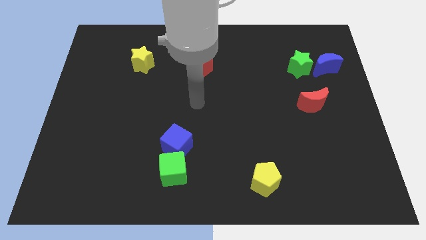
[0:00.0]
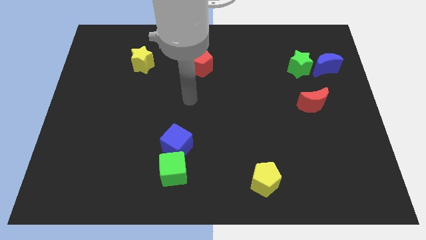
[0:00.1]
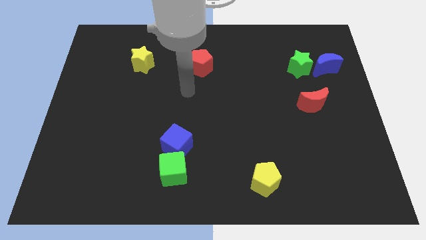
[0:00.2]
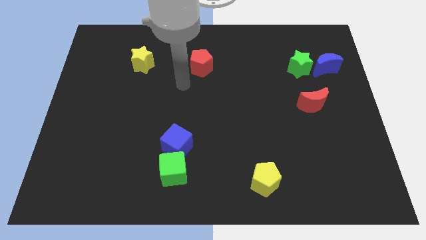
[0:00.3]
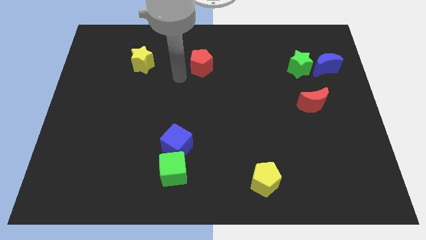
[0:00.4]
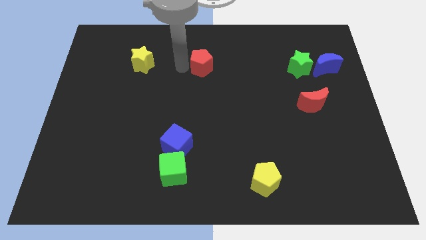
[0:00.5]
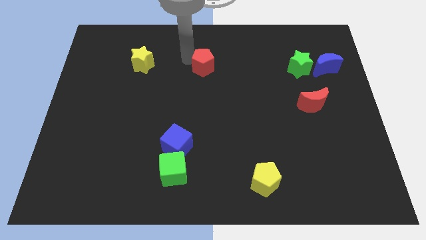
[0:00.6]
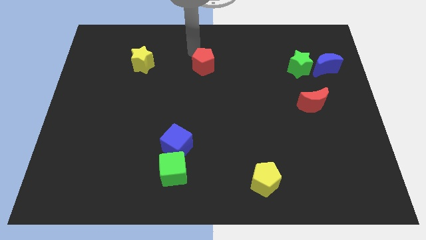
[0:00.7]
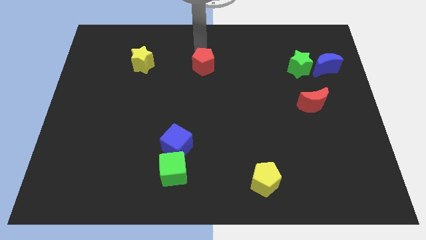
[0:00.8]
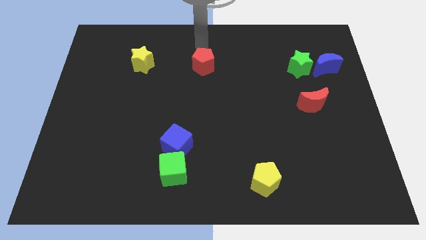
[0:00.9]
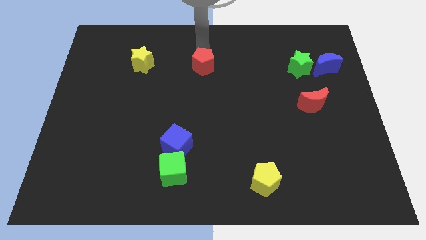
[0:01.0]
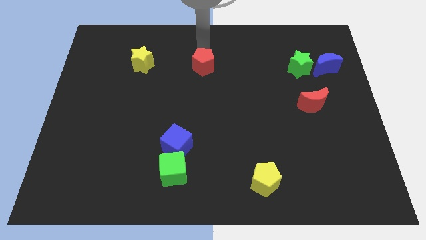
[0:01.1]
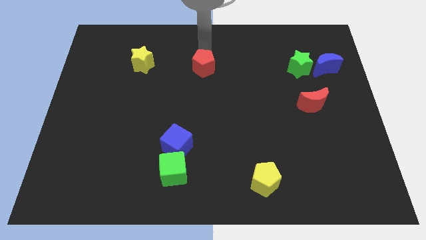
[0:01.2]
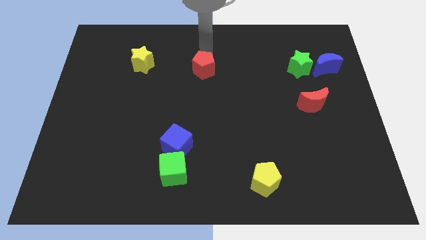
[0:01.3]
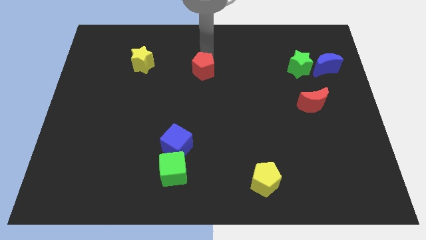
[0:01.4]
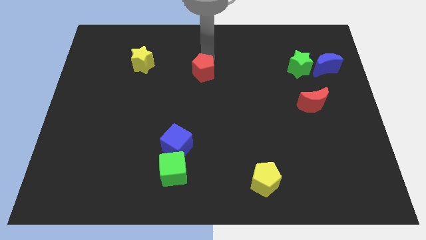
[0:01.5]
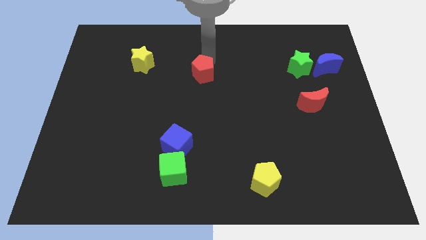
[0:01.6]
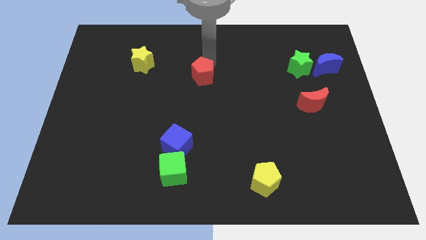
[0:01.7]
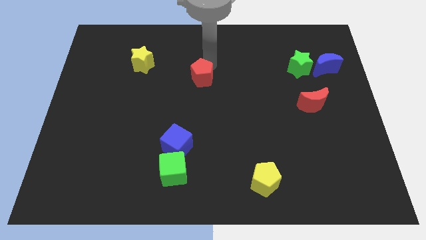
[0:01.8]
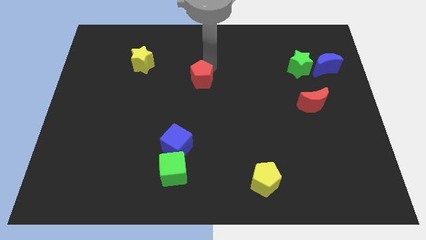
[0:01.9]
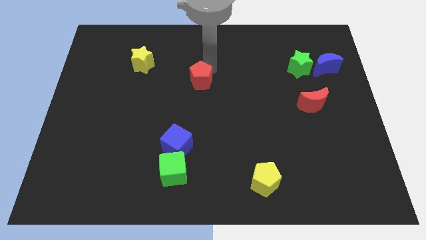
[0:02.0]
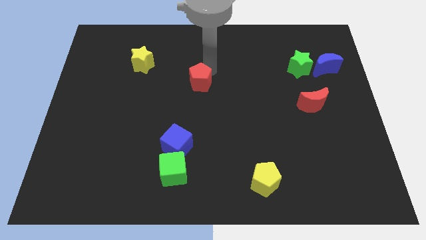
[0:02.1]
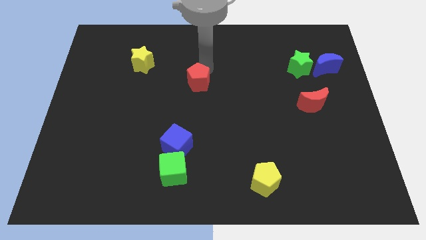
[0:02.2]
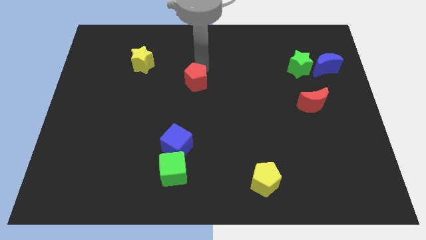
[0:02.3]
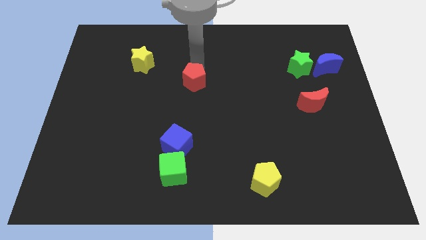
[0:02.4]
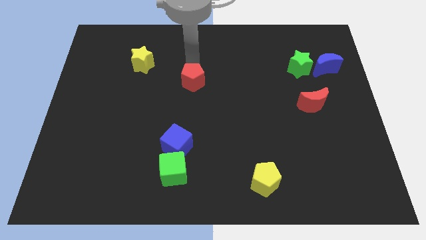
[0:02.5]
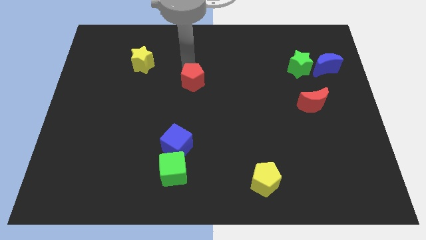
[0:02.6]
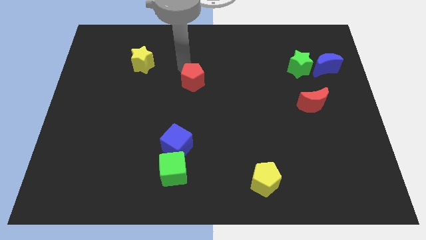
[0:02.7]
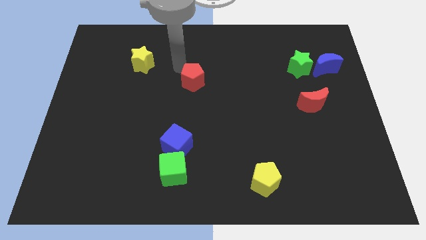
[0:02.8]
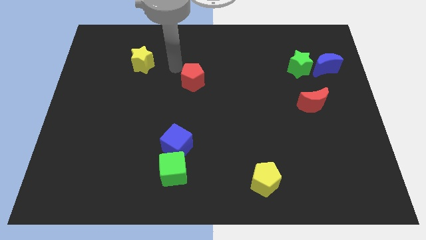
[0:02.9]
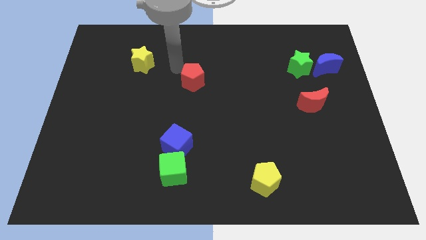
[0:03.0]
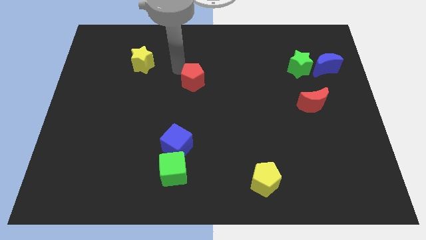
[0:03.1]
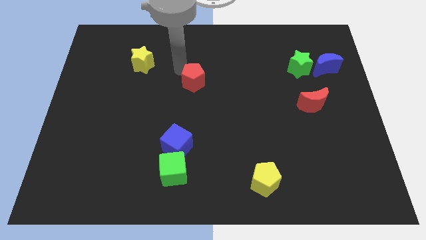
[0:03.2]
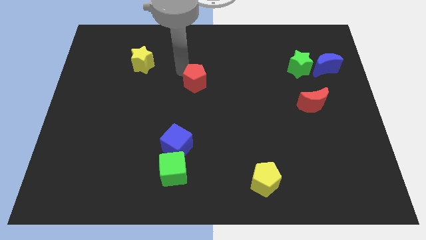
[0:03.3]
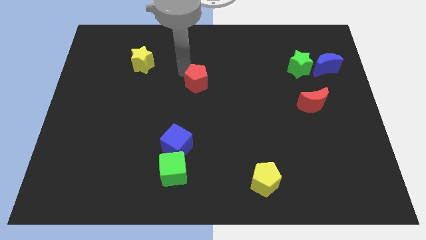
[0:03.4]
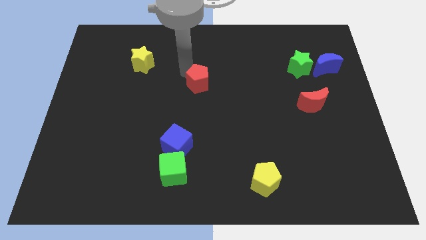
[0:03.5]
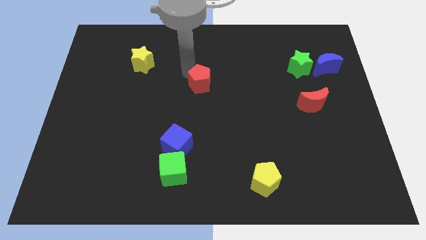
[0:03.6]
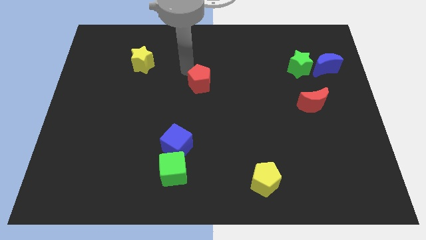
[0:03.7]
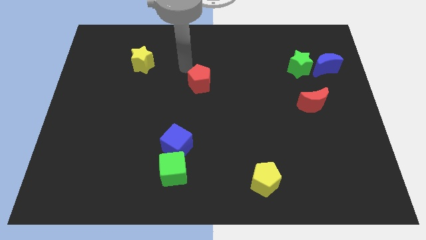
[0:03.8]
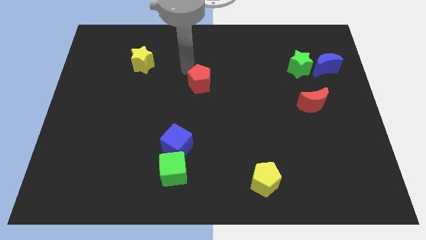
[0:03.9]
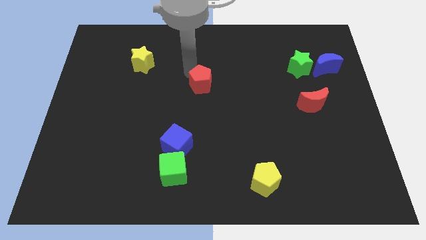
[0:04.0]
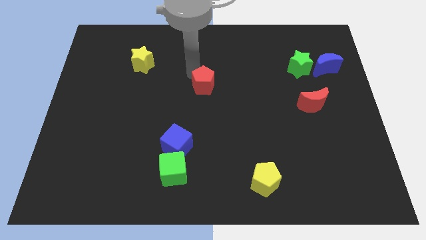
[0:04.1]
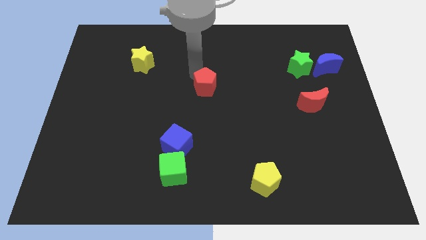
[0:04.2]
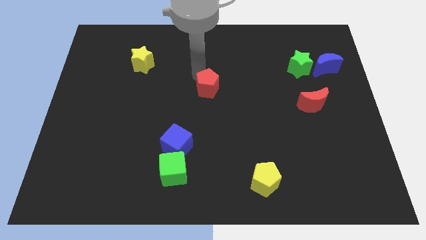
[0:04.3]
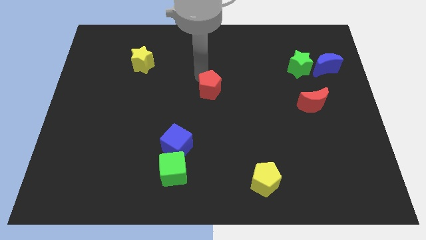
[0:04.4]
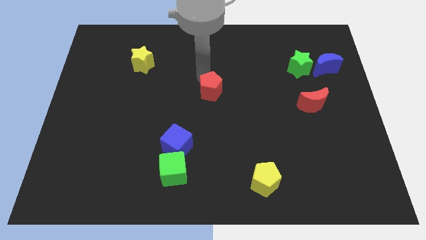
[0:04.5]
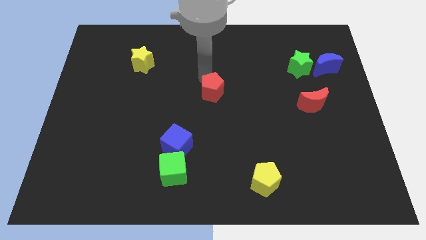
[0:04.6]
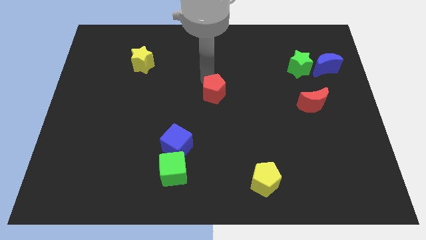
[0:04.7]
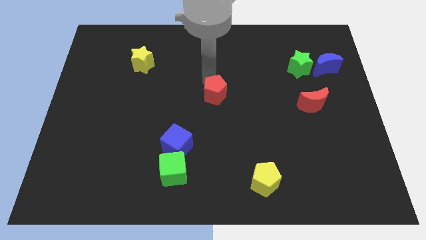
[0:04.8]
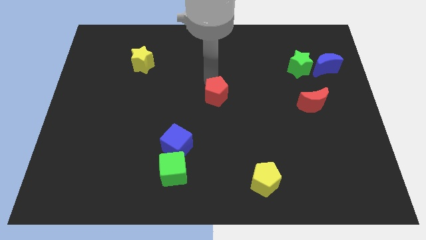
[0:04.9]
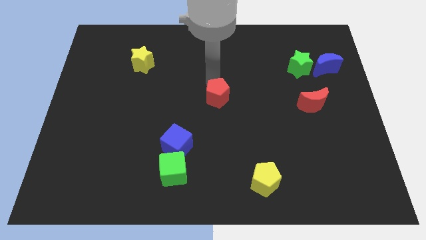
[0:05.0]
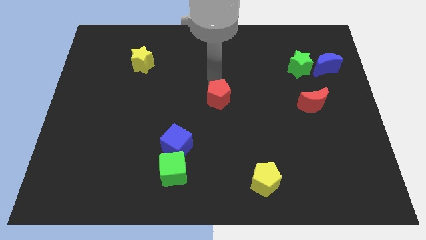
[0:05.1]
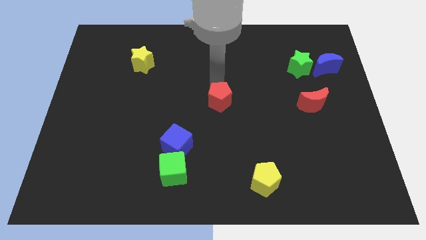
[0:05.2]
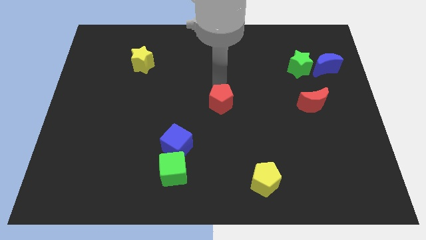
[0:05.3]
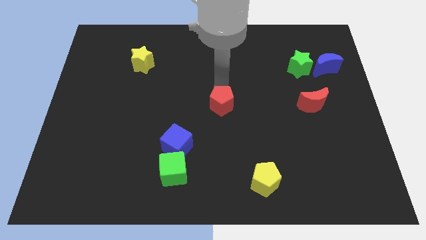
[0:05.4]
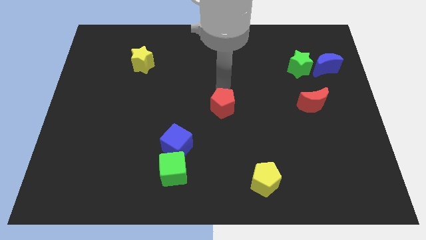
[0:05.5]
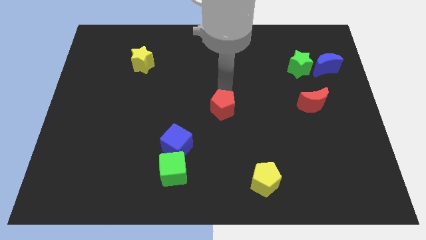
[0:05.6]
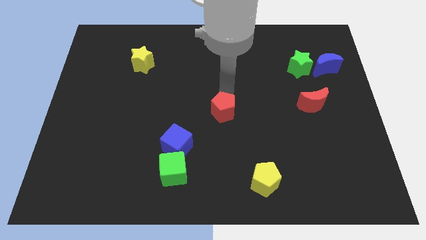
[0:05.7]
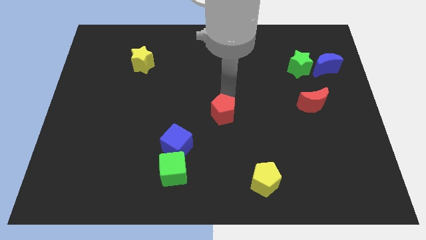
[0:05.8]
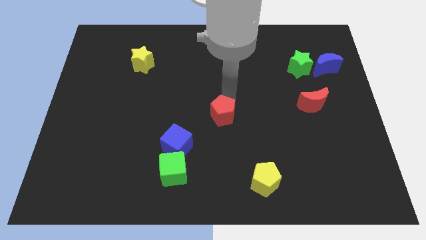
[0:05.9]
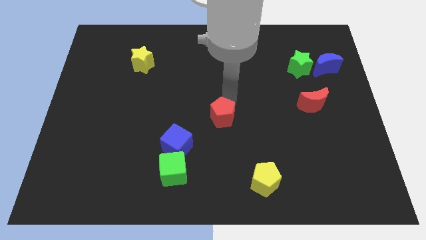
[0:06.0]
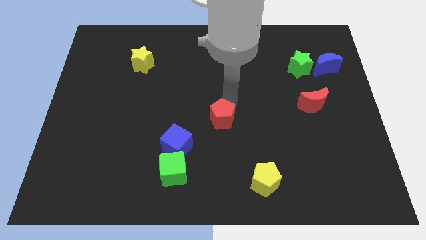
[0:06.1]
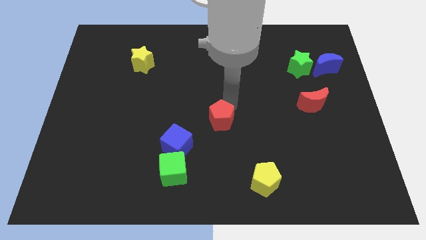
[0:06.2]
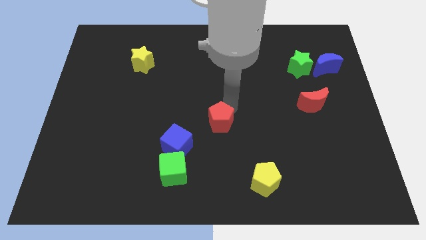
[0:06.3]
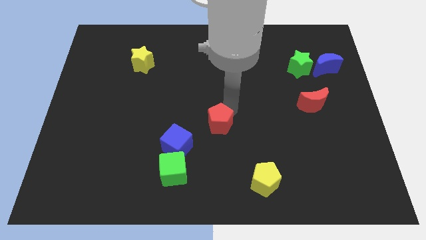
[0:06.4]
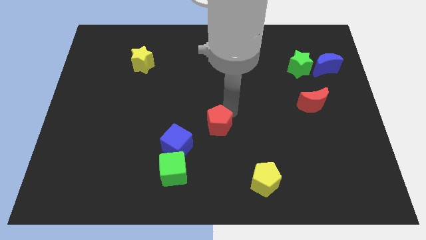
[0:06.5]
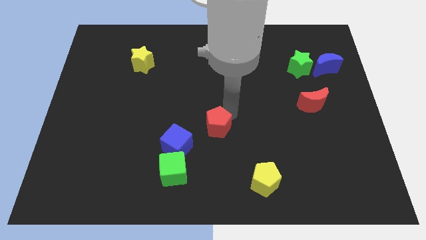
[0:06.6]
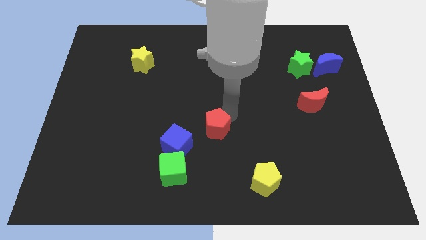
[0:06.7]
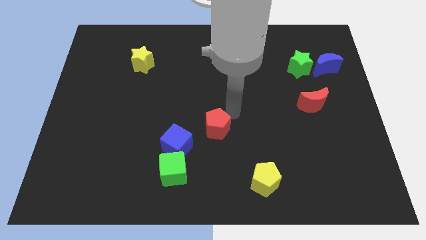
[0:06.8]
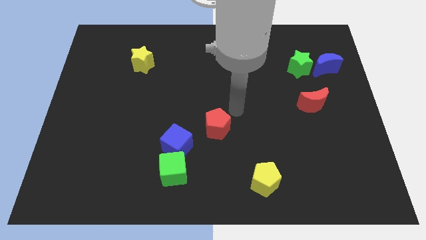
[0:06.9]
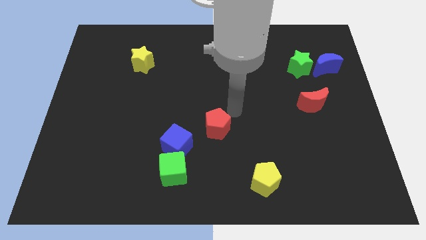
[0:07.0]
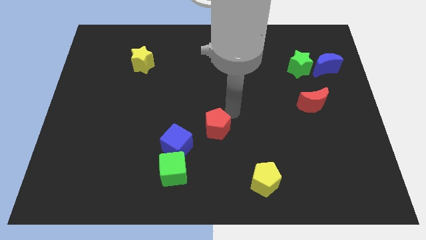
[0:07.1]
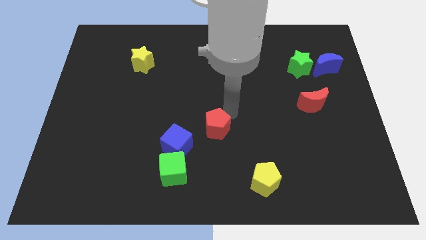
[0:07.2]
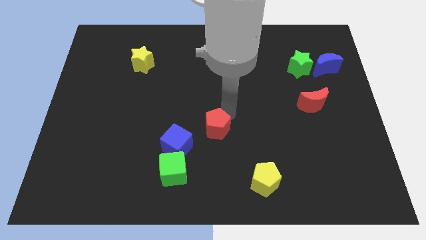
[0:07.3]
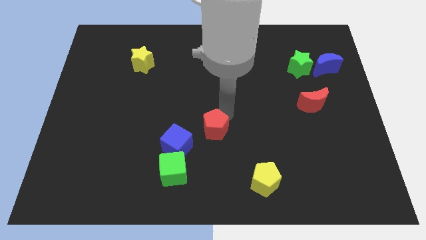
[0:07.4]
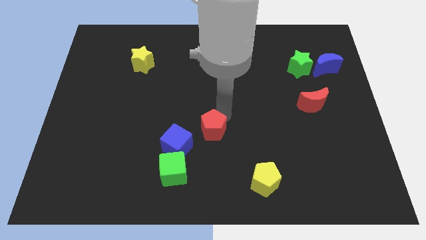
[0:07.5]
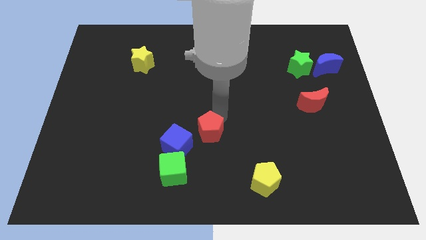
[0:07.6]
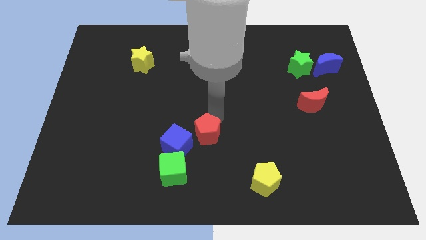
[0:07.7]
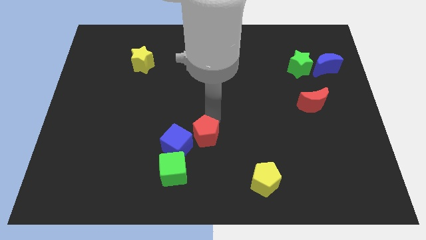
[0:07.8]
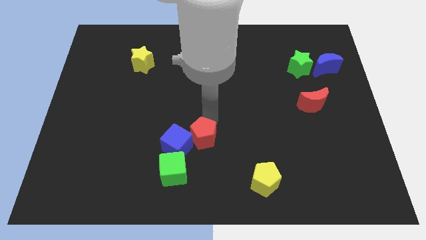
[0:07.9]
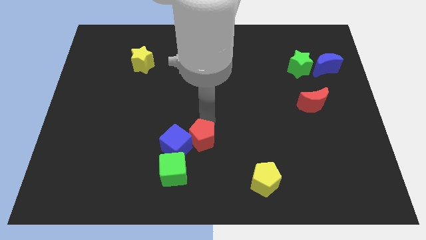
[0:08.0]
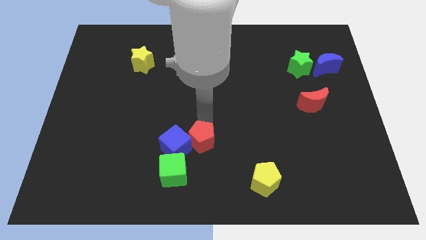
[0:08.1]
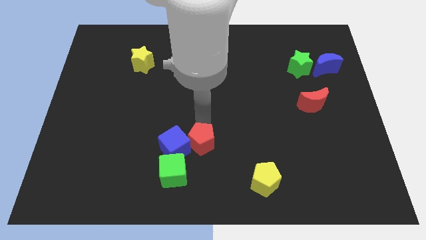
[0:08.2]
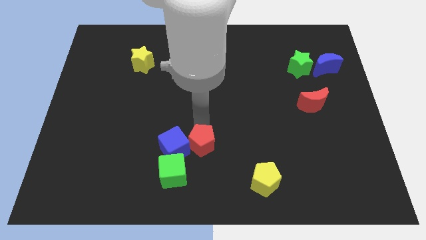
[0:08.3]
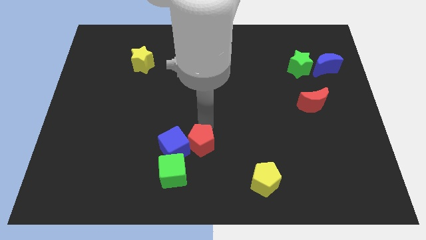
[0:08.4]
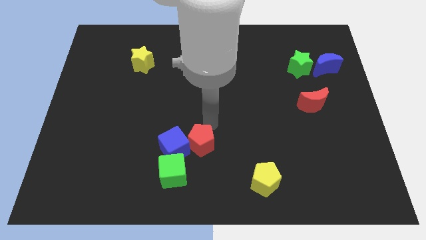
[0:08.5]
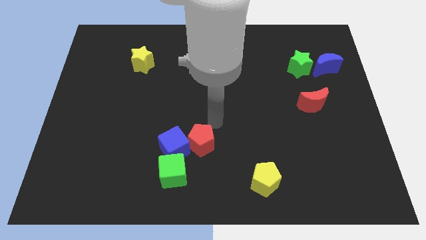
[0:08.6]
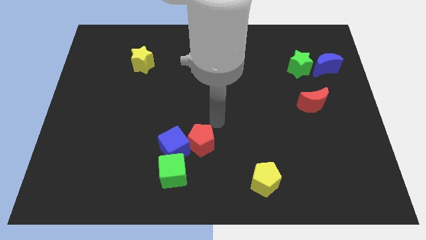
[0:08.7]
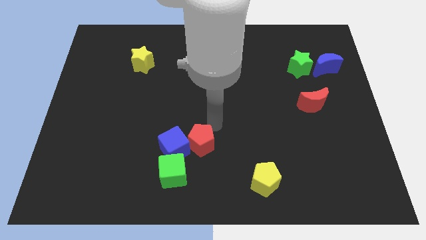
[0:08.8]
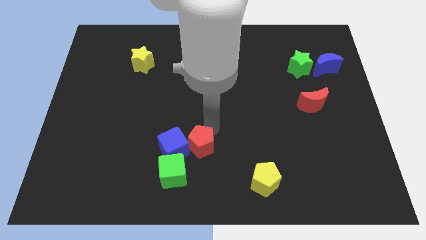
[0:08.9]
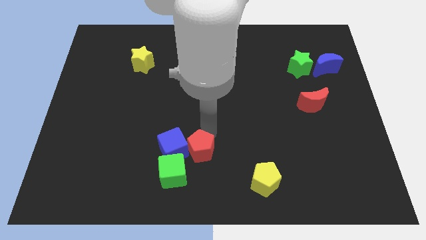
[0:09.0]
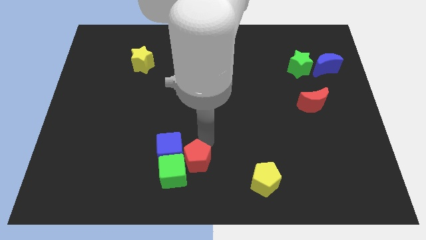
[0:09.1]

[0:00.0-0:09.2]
slide the red pentagon next to the green cube
